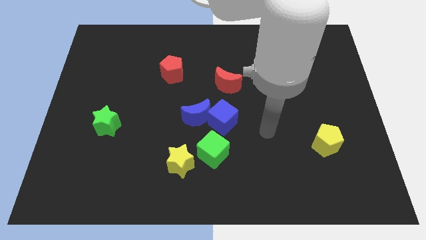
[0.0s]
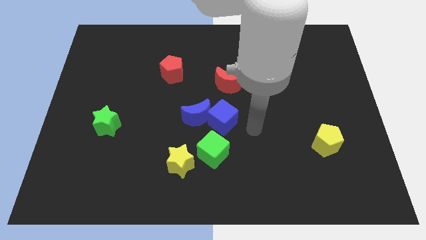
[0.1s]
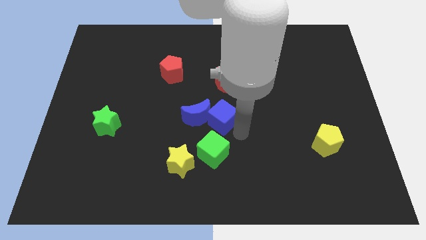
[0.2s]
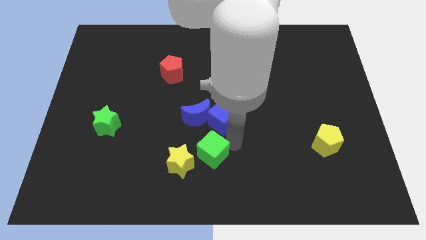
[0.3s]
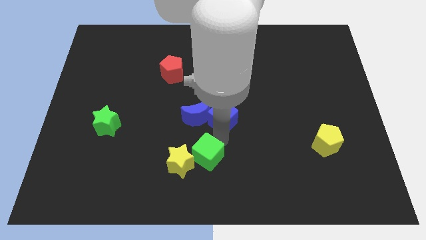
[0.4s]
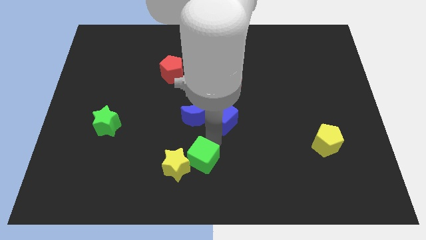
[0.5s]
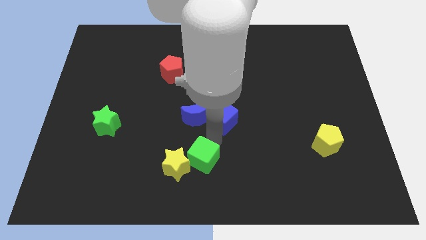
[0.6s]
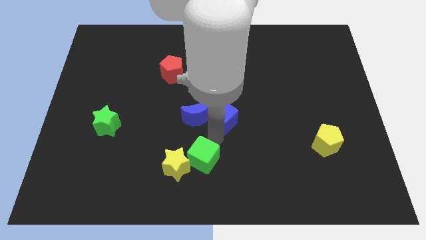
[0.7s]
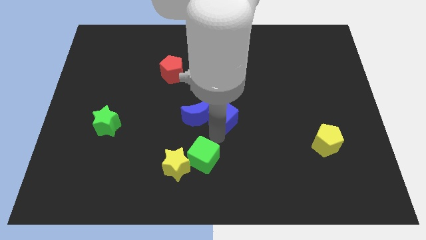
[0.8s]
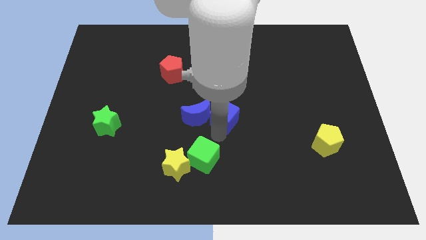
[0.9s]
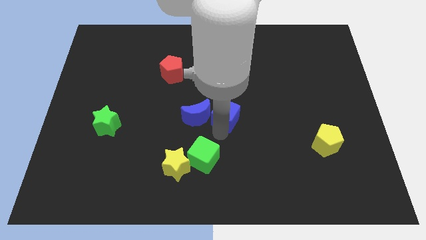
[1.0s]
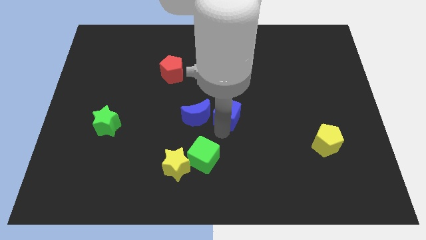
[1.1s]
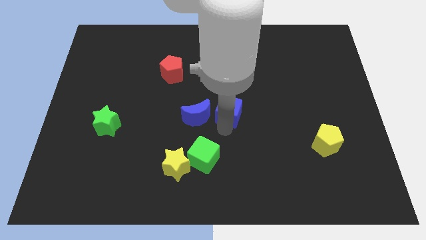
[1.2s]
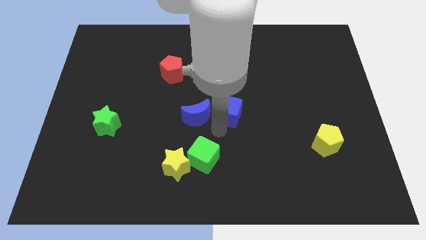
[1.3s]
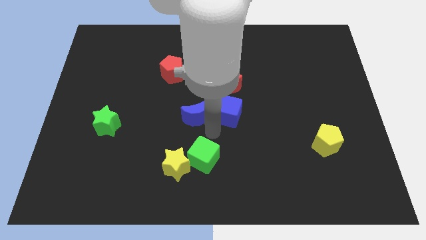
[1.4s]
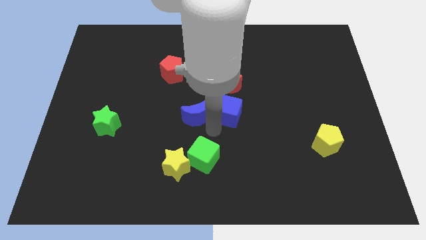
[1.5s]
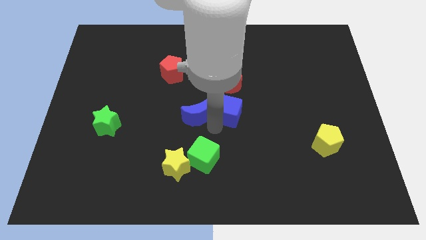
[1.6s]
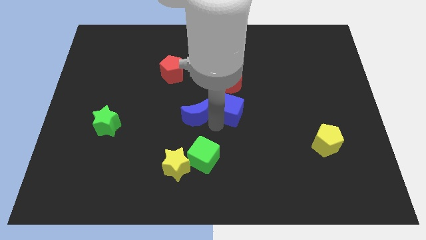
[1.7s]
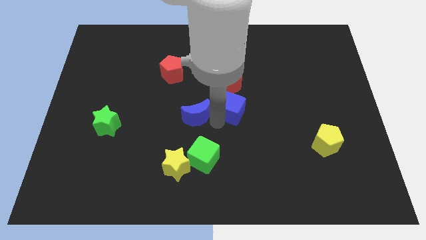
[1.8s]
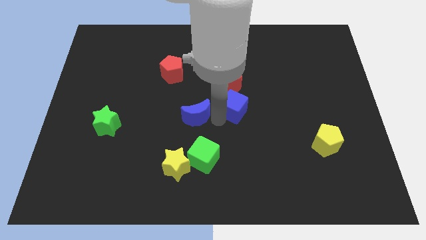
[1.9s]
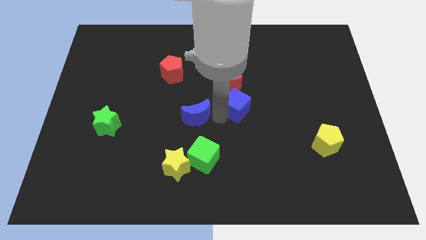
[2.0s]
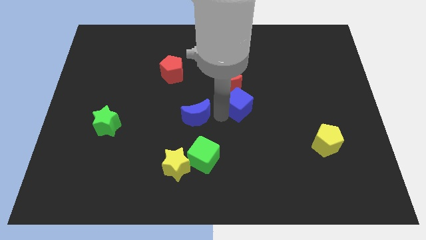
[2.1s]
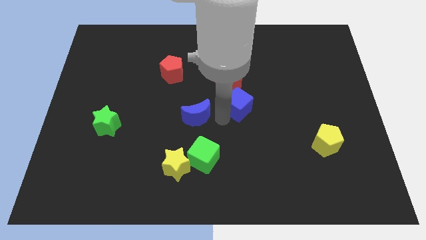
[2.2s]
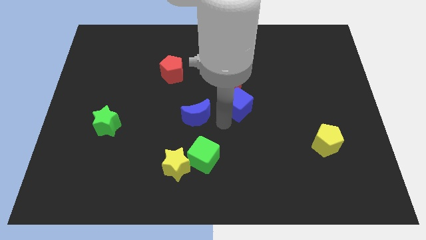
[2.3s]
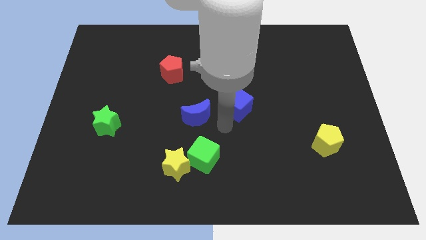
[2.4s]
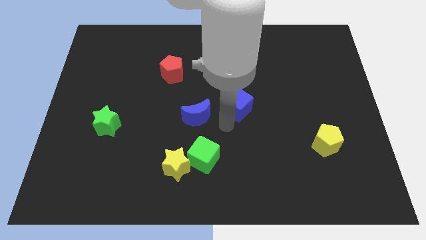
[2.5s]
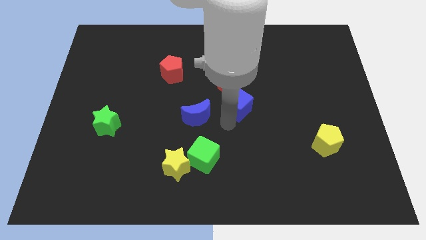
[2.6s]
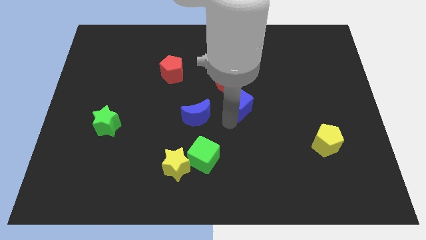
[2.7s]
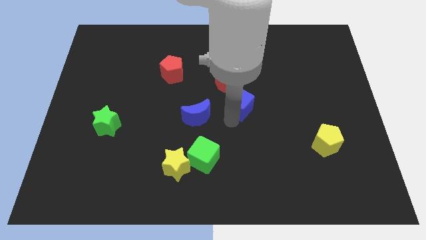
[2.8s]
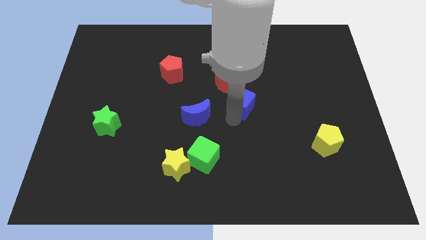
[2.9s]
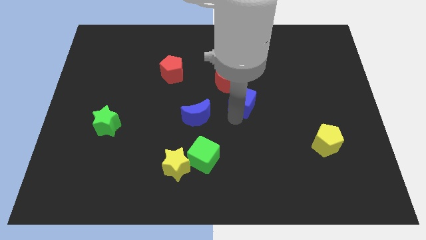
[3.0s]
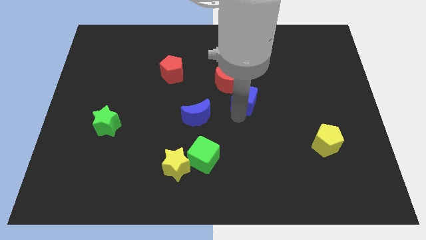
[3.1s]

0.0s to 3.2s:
push the blue cube up and right diagonally a little bit

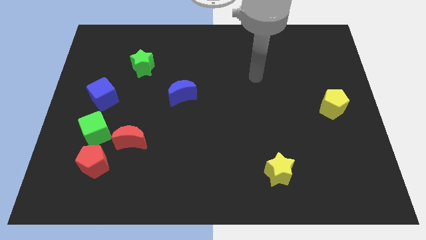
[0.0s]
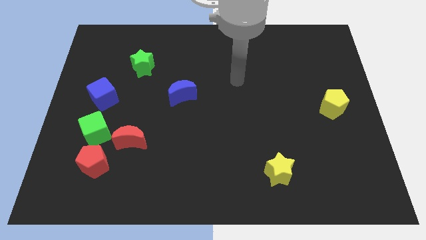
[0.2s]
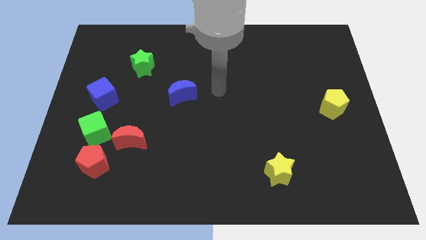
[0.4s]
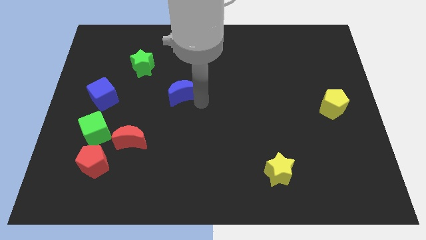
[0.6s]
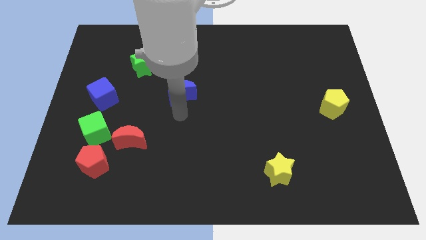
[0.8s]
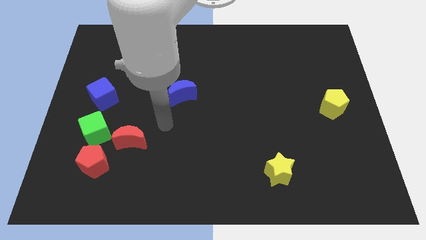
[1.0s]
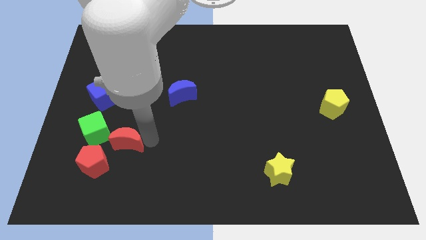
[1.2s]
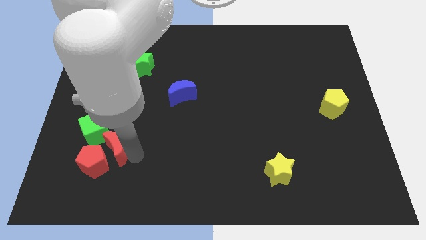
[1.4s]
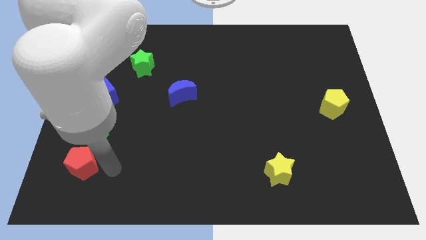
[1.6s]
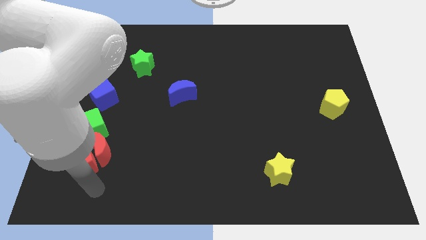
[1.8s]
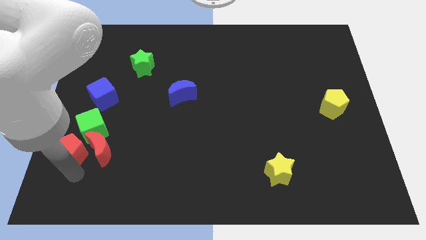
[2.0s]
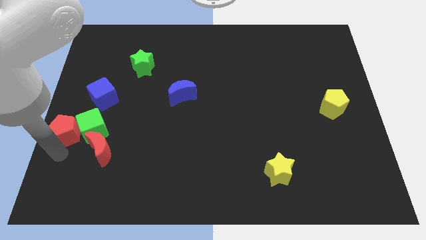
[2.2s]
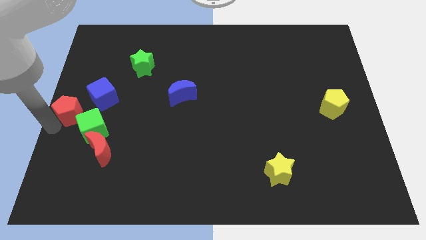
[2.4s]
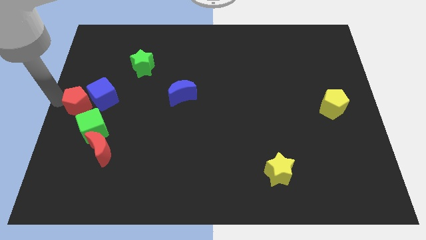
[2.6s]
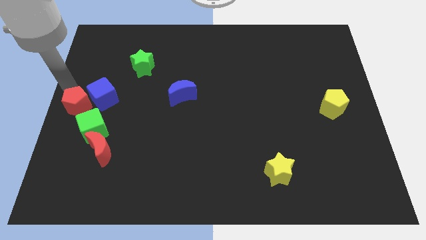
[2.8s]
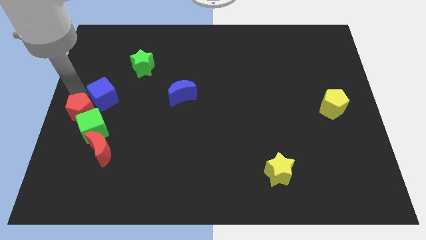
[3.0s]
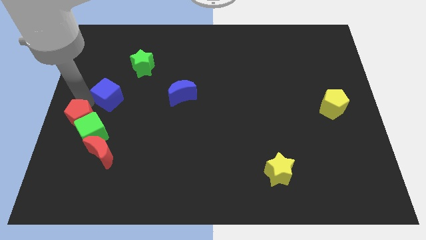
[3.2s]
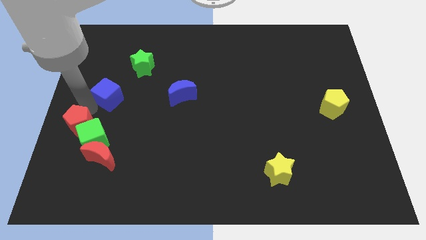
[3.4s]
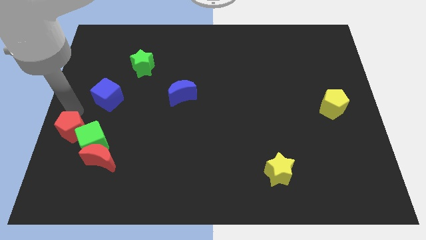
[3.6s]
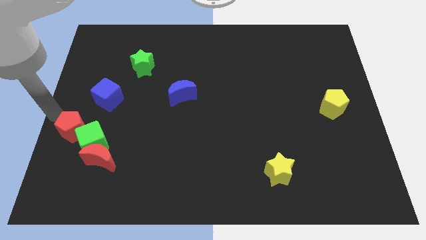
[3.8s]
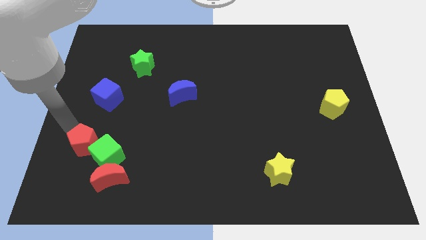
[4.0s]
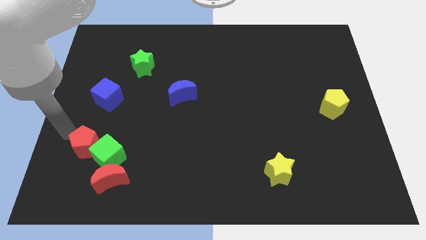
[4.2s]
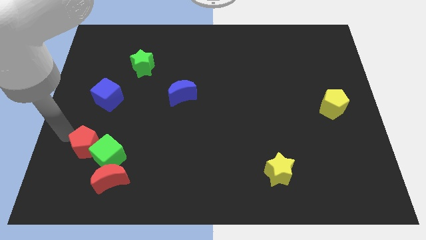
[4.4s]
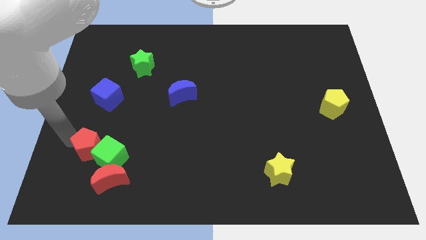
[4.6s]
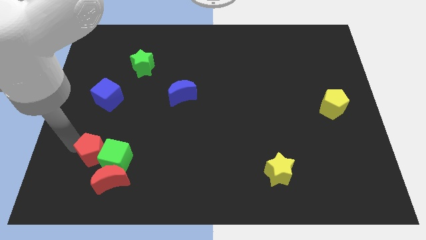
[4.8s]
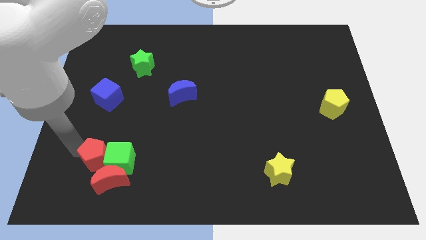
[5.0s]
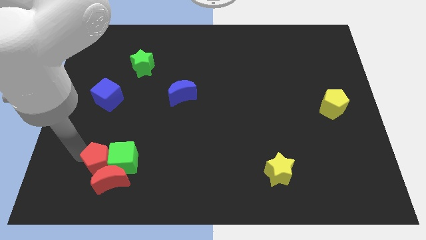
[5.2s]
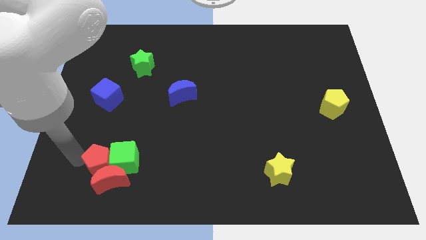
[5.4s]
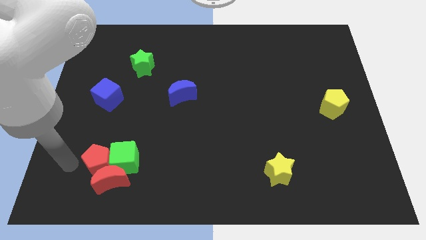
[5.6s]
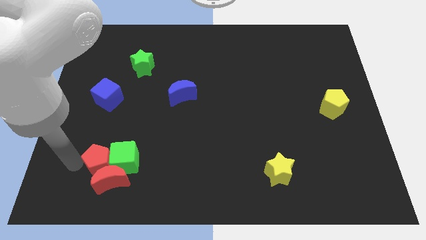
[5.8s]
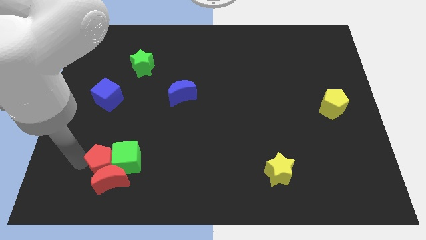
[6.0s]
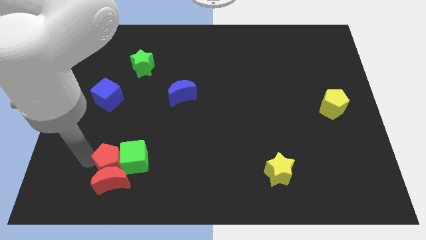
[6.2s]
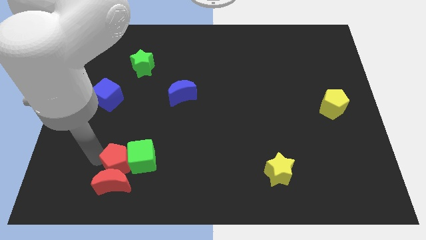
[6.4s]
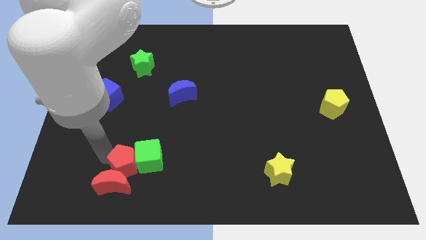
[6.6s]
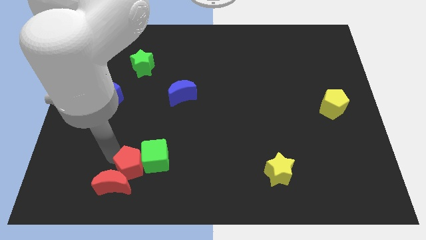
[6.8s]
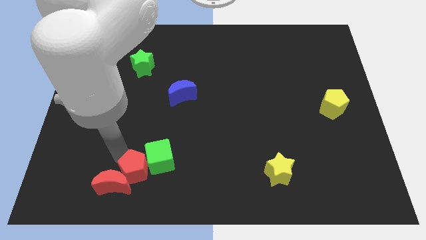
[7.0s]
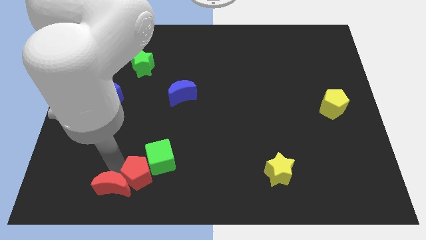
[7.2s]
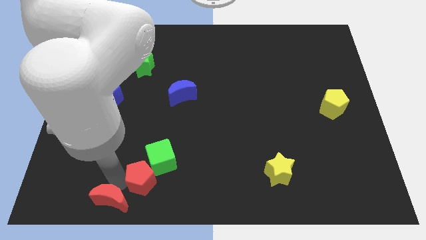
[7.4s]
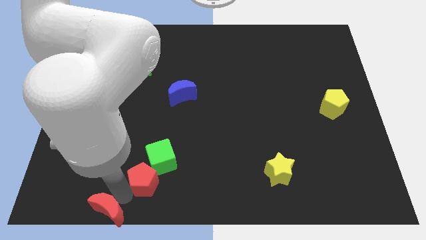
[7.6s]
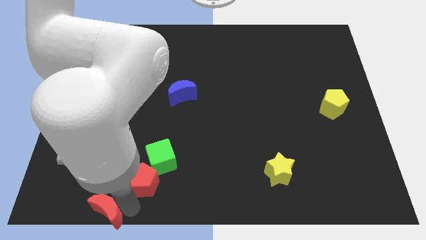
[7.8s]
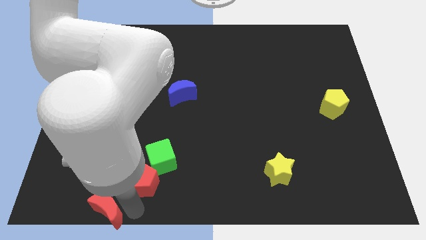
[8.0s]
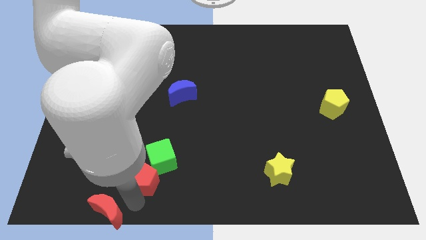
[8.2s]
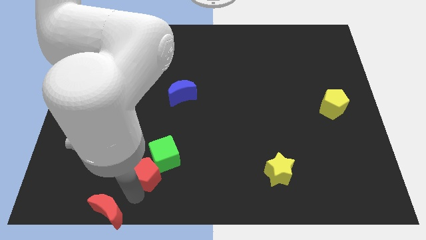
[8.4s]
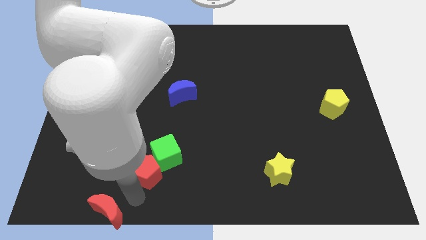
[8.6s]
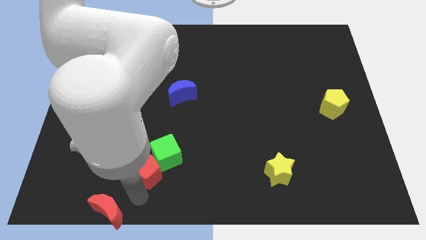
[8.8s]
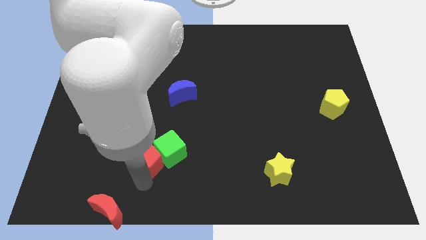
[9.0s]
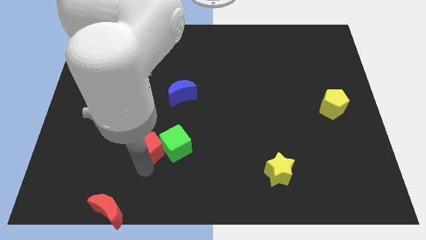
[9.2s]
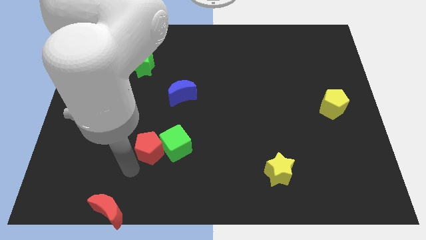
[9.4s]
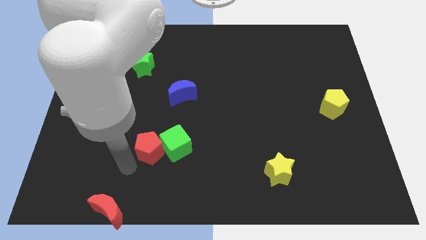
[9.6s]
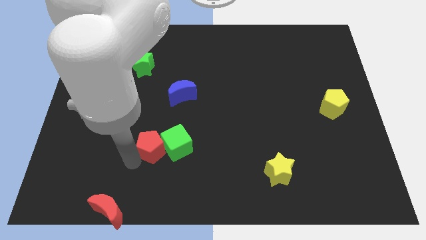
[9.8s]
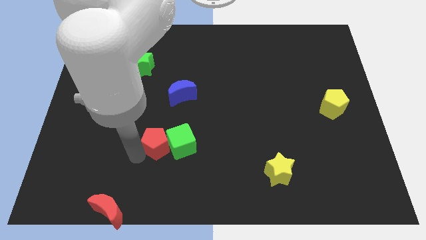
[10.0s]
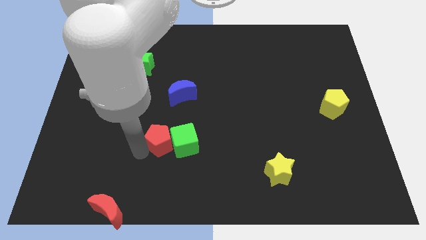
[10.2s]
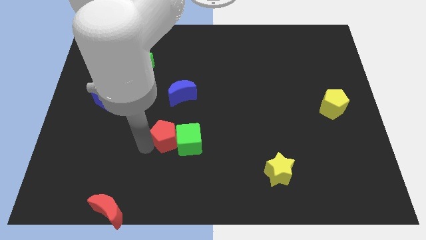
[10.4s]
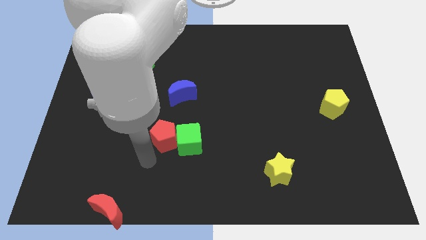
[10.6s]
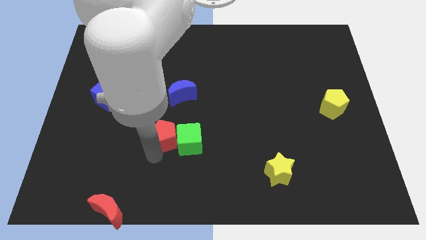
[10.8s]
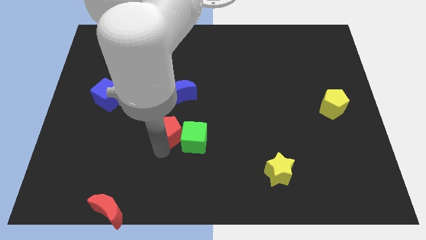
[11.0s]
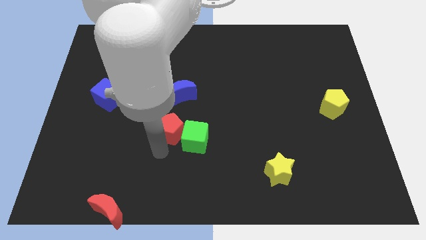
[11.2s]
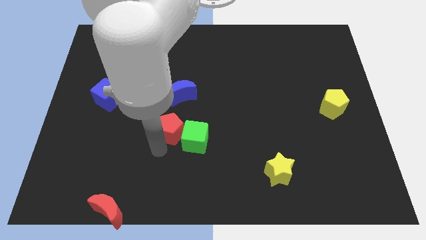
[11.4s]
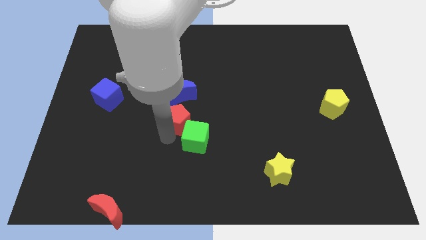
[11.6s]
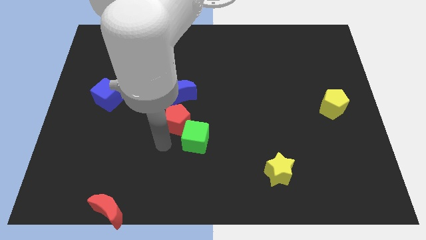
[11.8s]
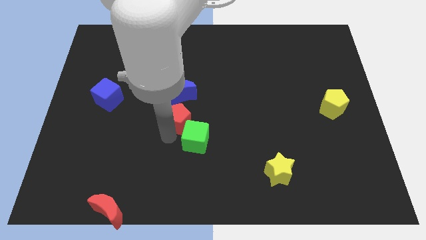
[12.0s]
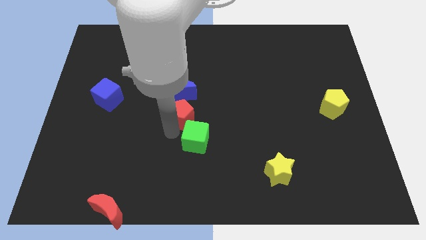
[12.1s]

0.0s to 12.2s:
move the red pentagon diagonally up and to the right
